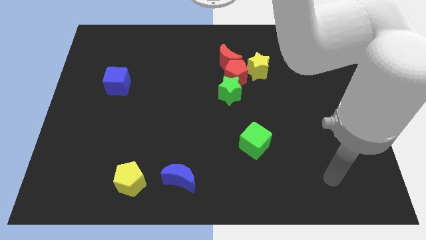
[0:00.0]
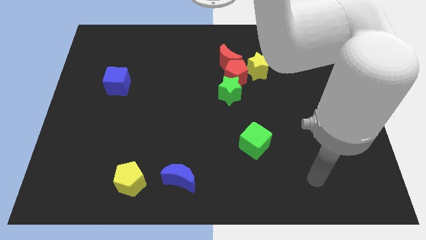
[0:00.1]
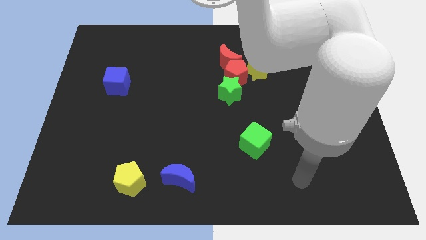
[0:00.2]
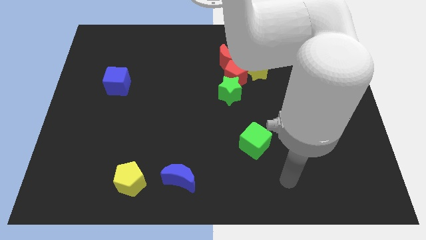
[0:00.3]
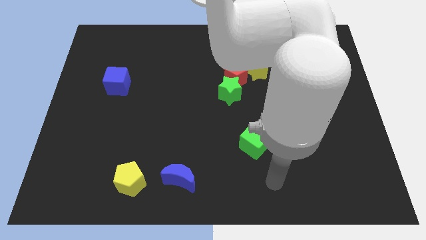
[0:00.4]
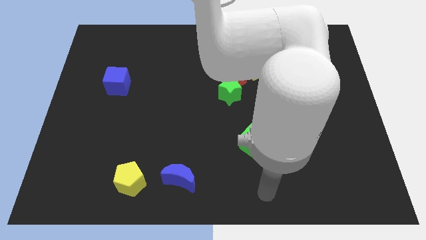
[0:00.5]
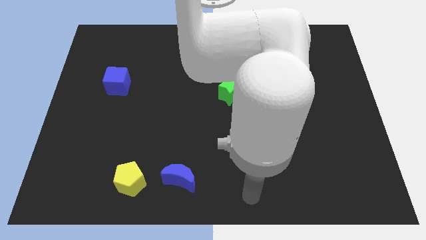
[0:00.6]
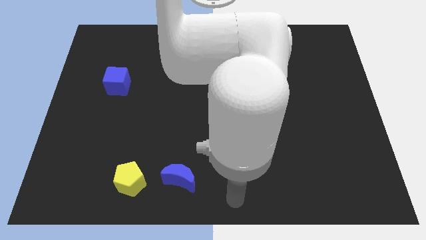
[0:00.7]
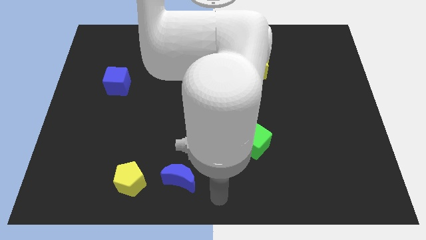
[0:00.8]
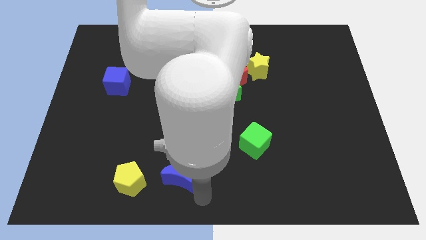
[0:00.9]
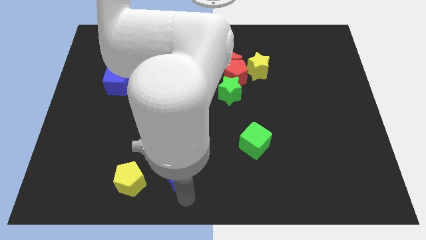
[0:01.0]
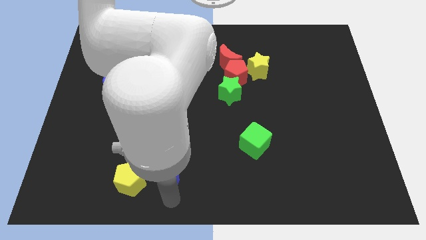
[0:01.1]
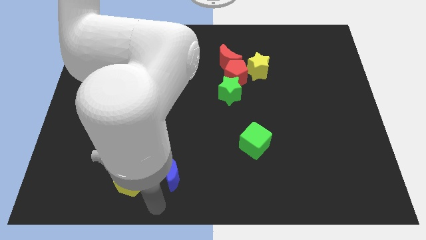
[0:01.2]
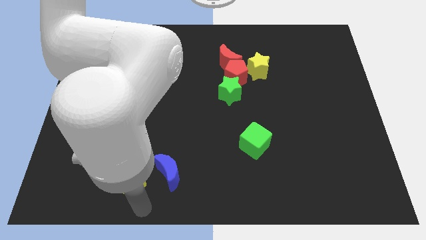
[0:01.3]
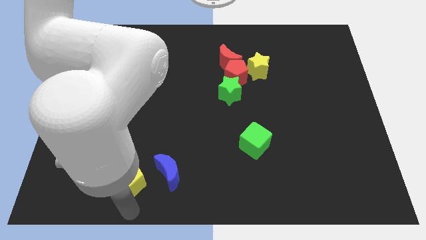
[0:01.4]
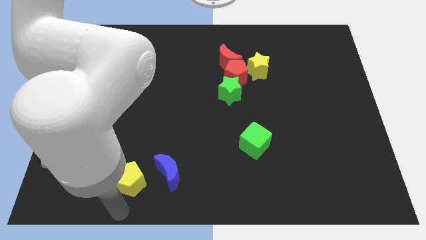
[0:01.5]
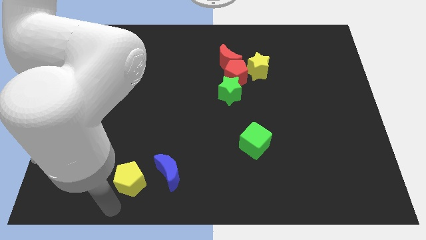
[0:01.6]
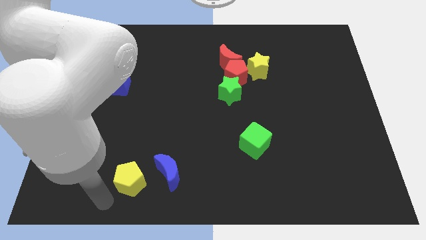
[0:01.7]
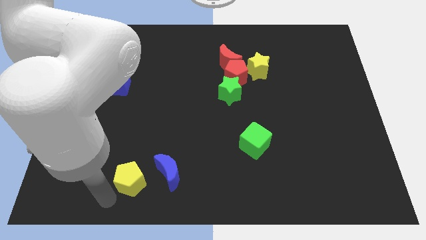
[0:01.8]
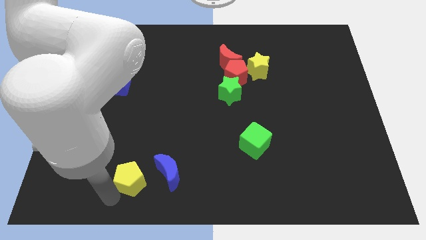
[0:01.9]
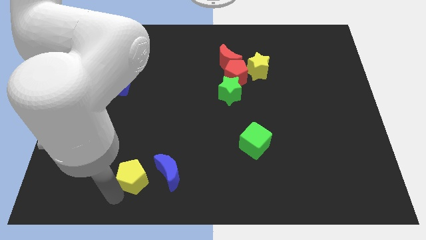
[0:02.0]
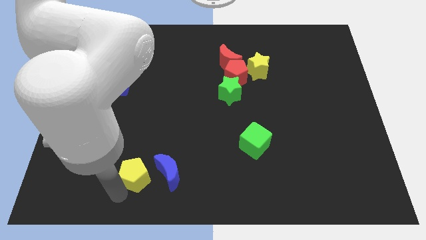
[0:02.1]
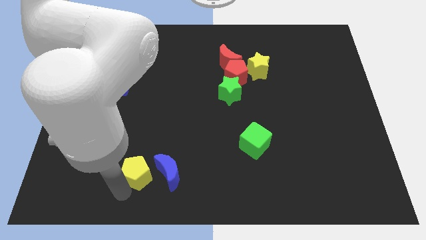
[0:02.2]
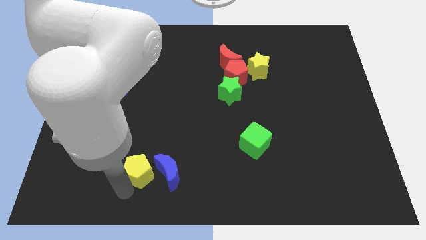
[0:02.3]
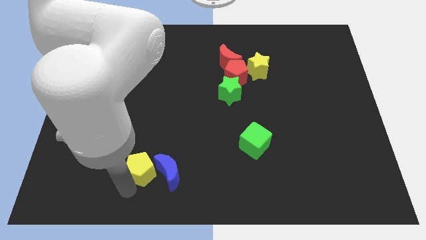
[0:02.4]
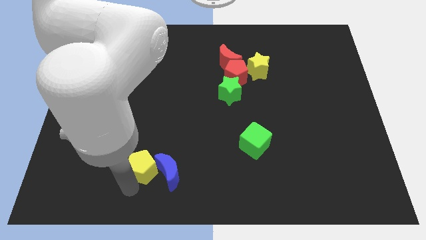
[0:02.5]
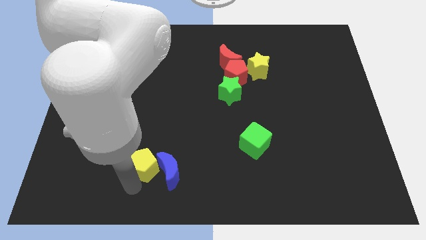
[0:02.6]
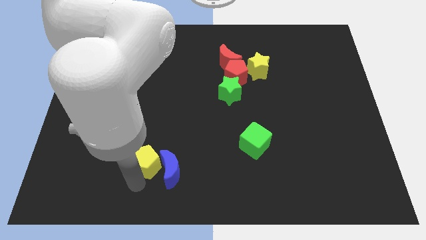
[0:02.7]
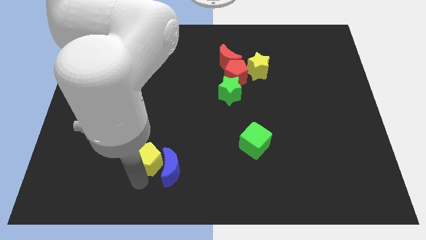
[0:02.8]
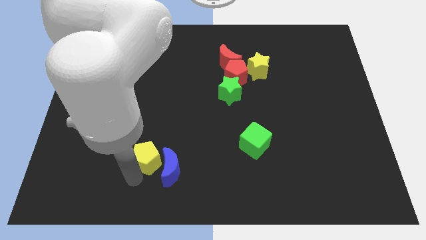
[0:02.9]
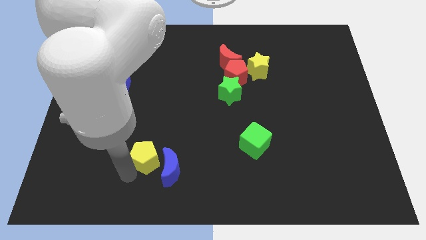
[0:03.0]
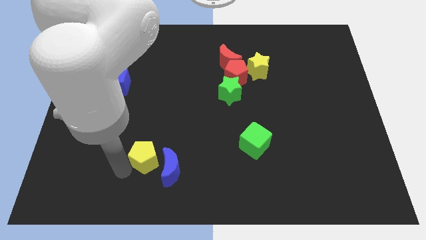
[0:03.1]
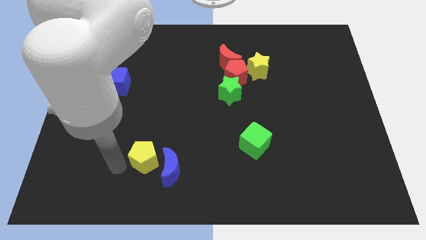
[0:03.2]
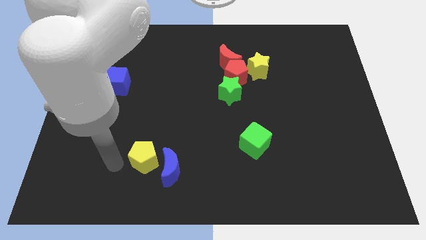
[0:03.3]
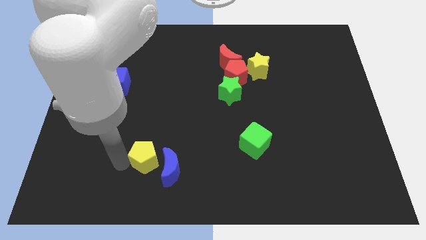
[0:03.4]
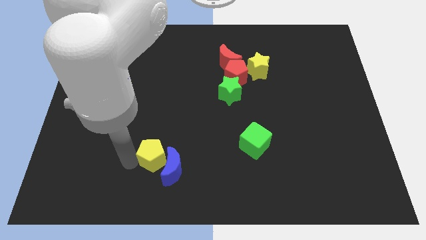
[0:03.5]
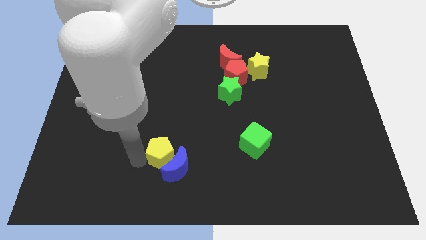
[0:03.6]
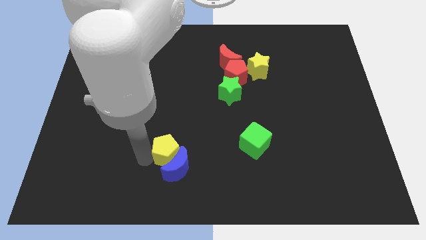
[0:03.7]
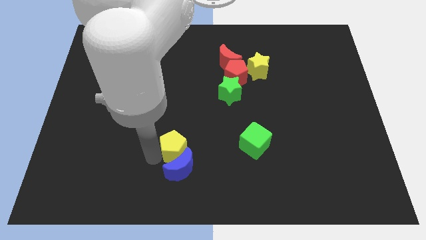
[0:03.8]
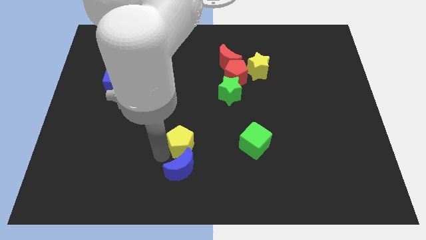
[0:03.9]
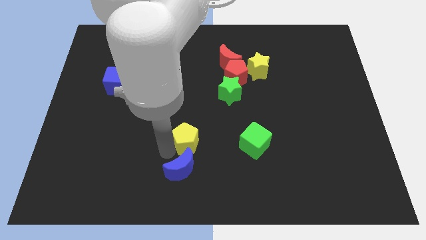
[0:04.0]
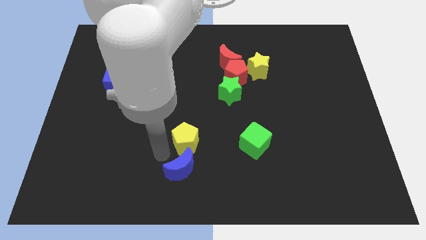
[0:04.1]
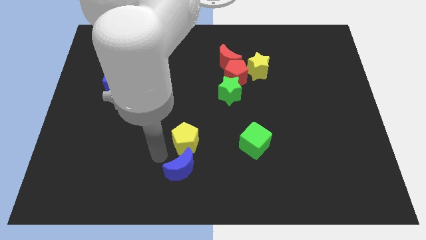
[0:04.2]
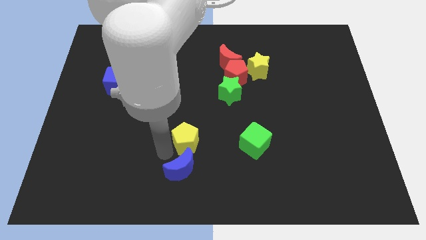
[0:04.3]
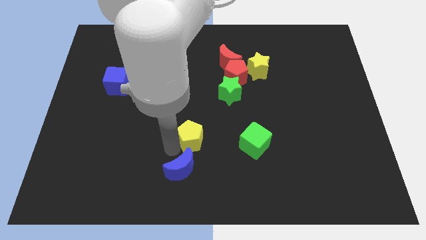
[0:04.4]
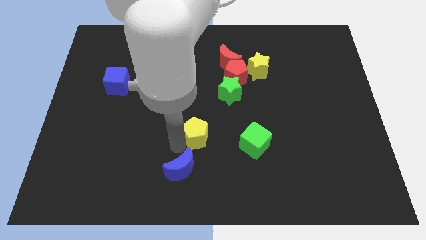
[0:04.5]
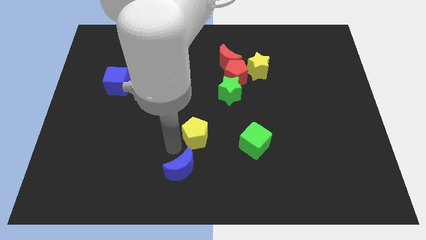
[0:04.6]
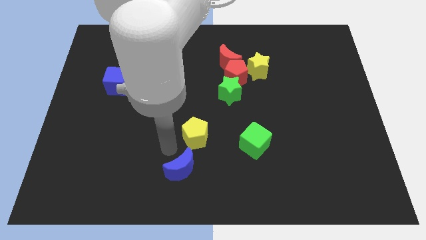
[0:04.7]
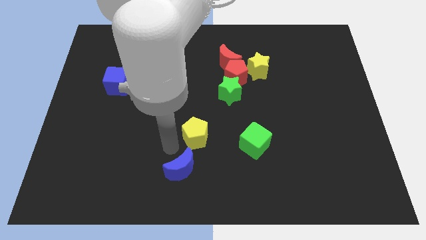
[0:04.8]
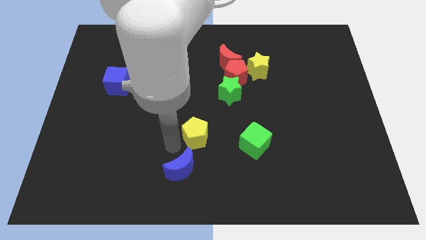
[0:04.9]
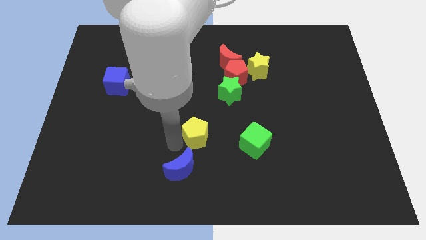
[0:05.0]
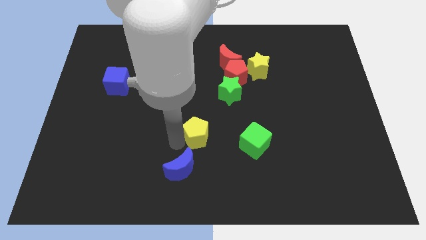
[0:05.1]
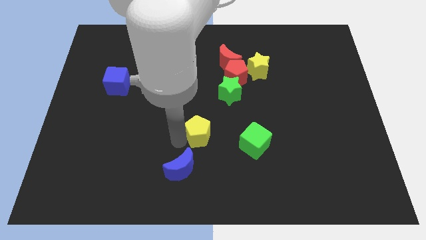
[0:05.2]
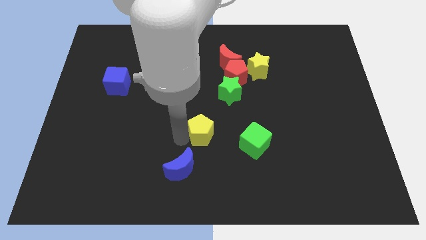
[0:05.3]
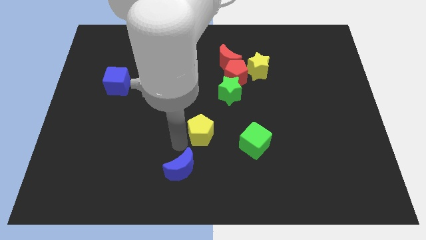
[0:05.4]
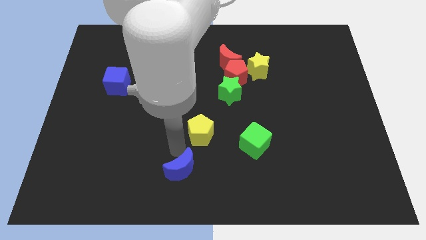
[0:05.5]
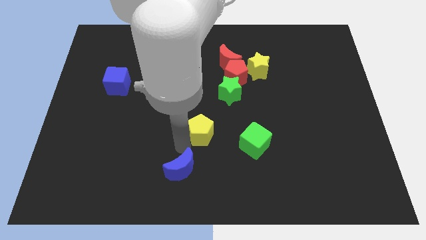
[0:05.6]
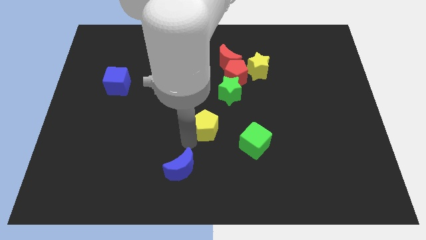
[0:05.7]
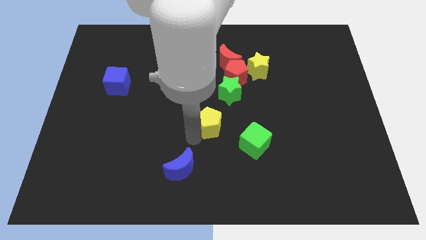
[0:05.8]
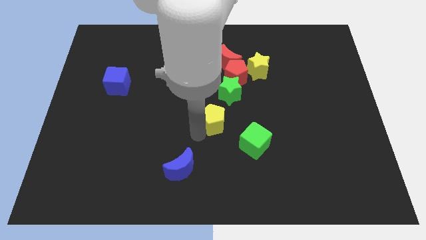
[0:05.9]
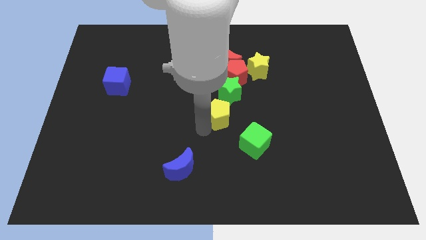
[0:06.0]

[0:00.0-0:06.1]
move the yellow pentagon below the red pentagon

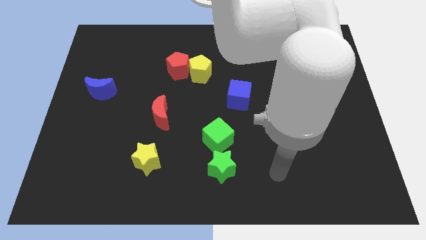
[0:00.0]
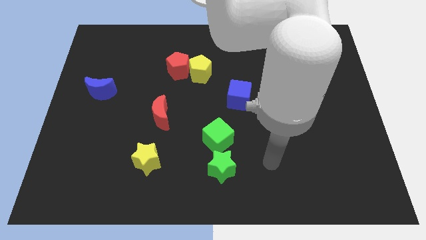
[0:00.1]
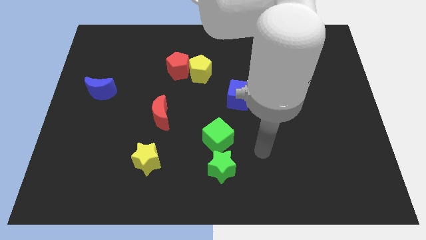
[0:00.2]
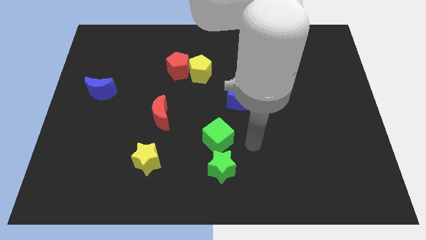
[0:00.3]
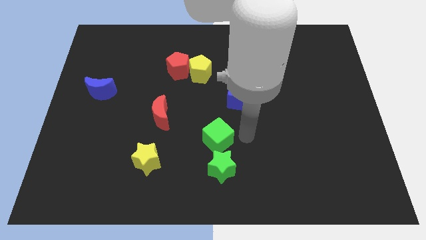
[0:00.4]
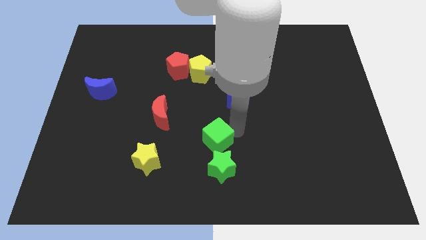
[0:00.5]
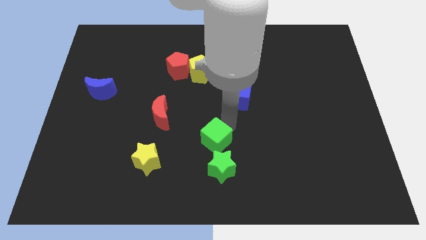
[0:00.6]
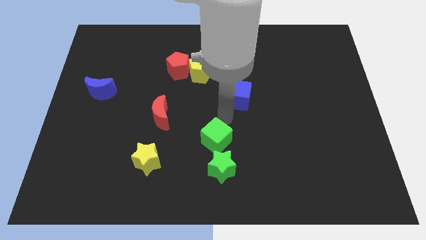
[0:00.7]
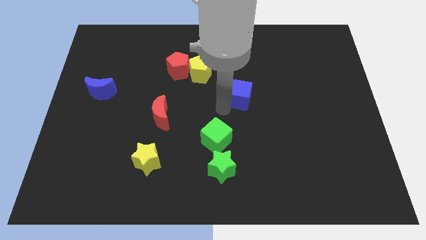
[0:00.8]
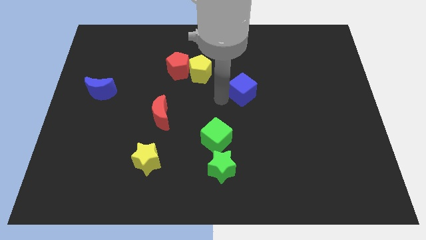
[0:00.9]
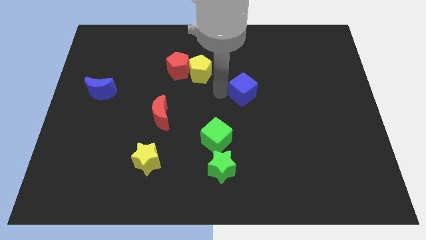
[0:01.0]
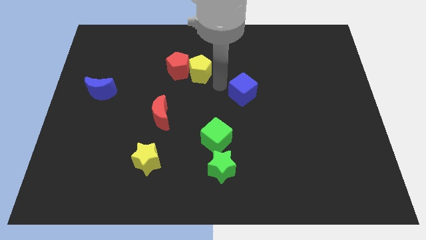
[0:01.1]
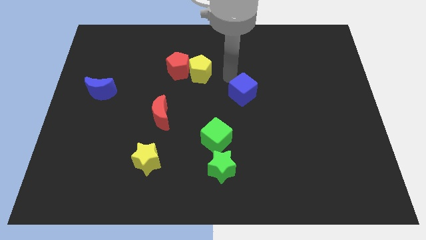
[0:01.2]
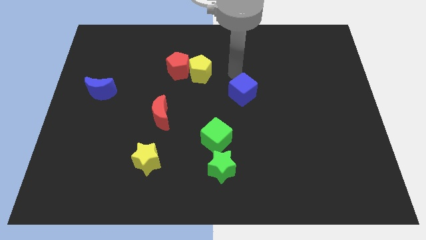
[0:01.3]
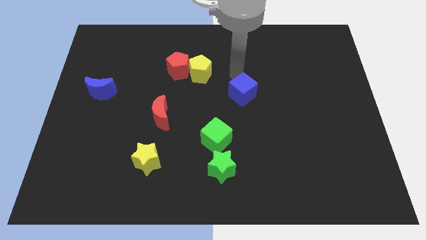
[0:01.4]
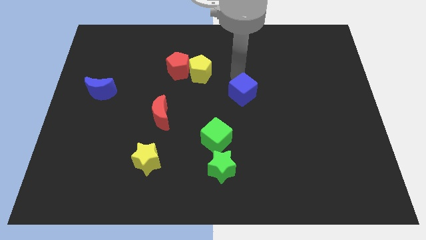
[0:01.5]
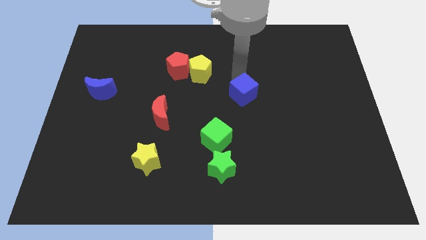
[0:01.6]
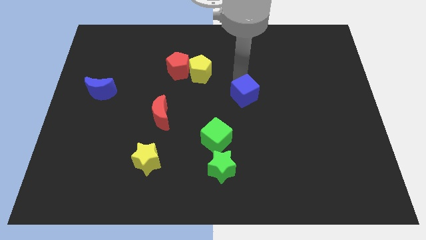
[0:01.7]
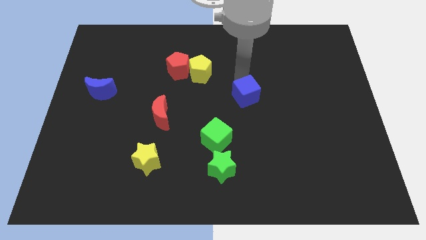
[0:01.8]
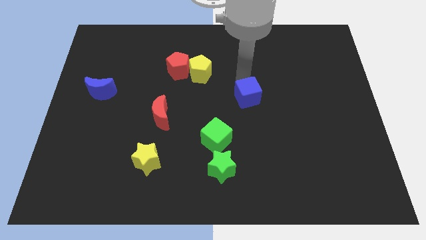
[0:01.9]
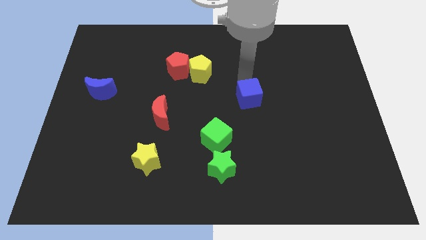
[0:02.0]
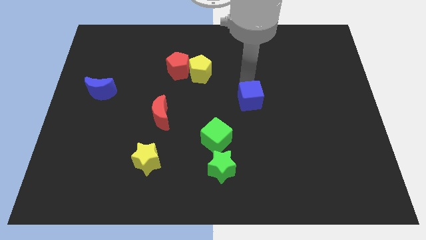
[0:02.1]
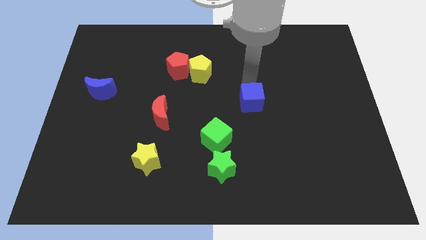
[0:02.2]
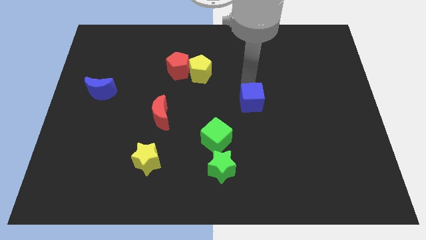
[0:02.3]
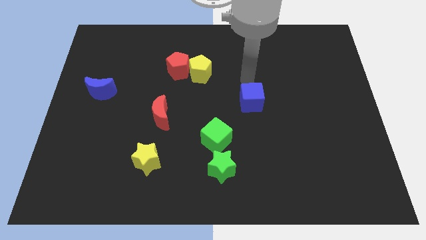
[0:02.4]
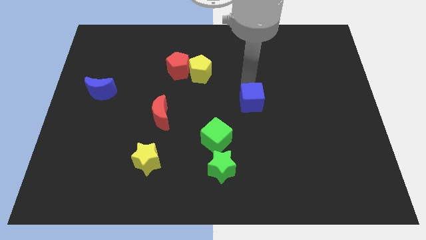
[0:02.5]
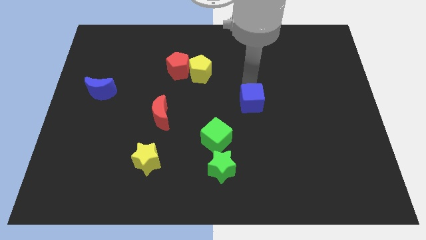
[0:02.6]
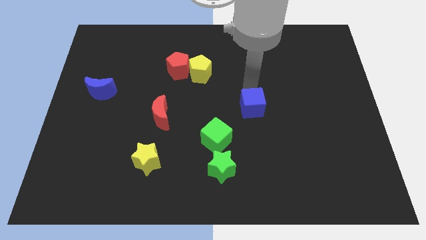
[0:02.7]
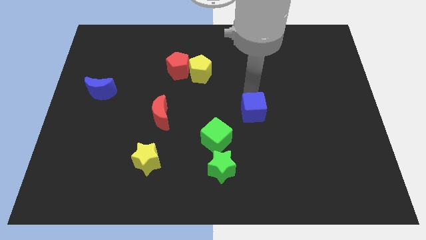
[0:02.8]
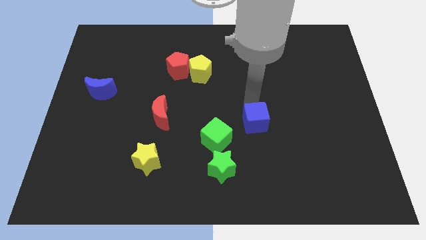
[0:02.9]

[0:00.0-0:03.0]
move the blue cube to the right of the green cube
